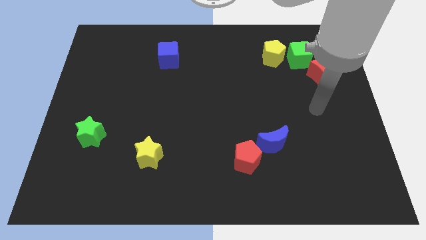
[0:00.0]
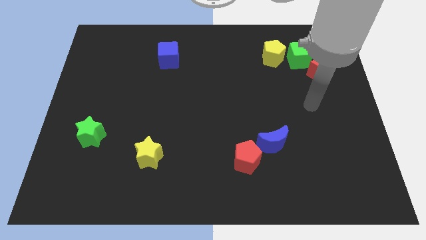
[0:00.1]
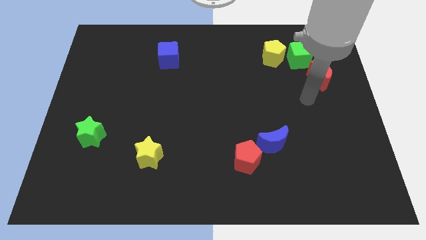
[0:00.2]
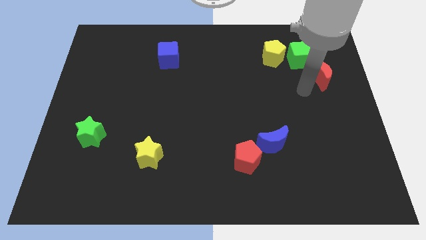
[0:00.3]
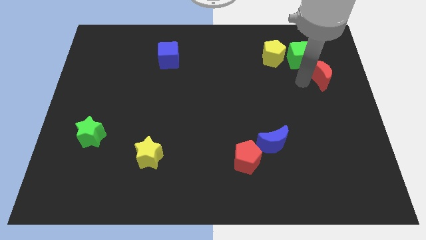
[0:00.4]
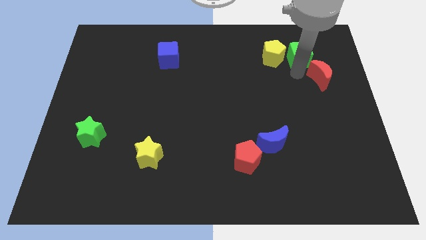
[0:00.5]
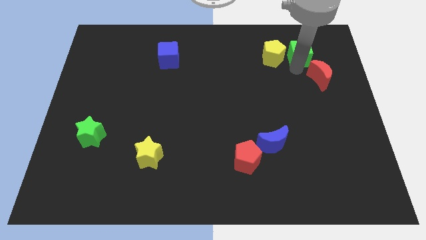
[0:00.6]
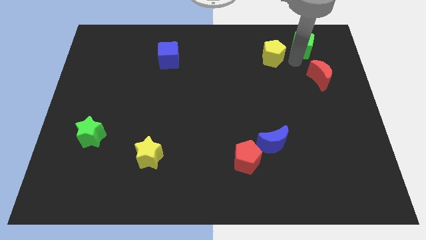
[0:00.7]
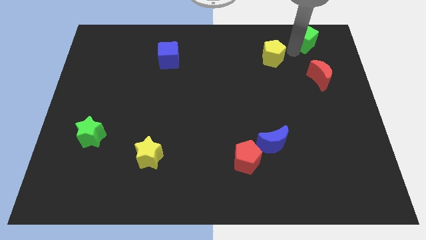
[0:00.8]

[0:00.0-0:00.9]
pull the yellow pentagon apart from the green cube

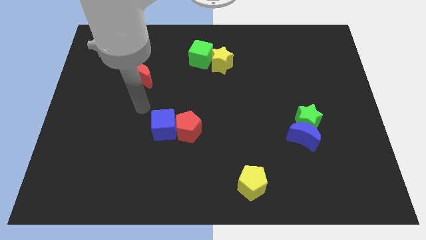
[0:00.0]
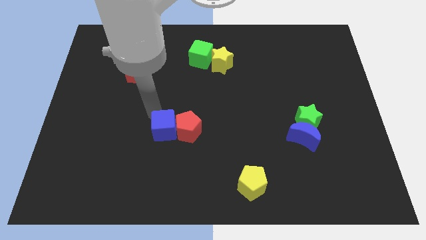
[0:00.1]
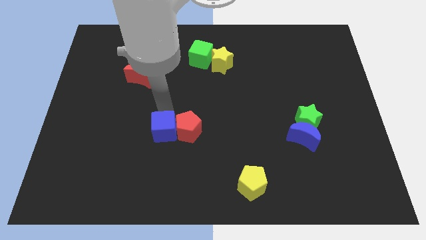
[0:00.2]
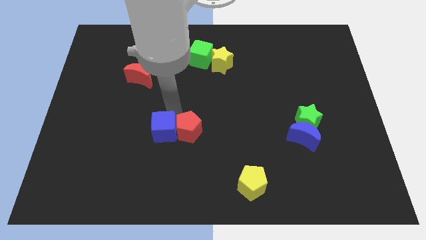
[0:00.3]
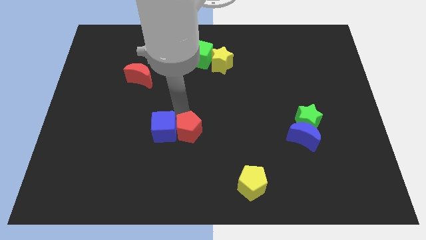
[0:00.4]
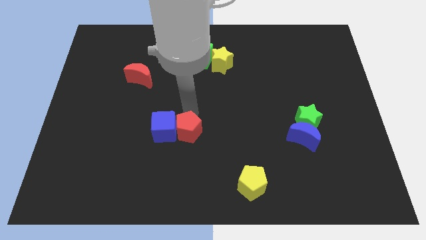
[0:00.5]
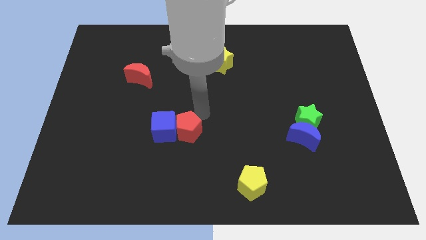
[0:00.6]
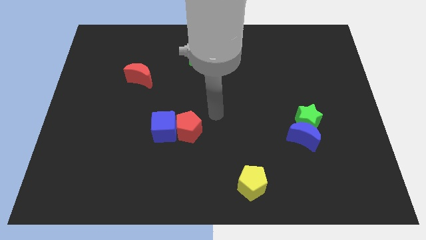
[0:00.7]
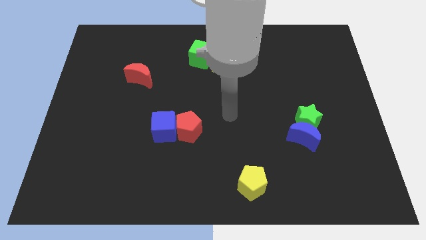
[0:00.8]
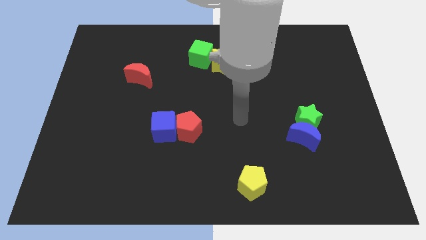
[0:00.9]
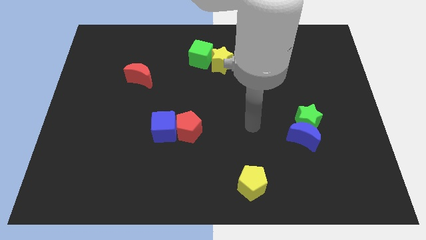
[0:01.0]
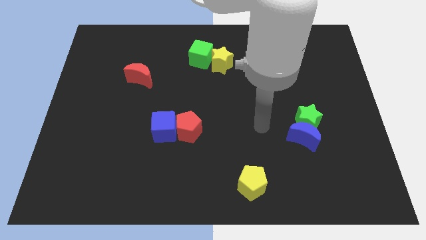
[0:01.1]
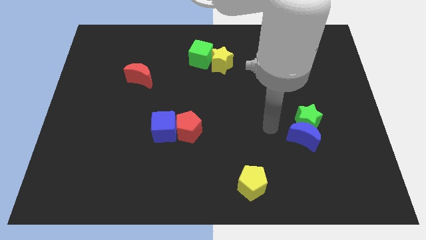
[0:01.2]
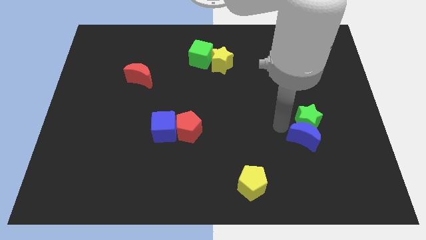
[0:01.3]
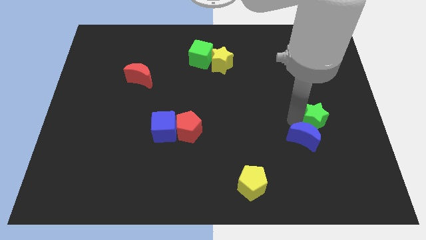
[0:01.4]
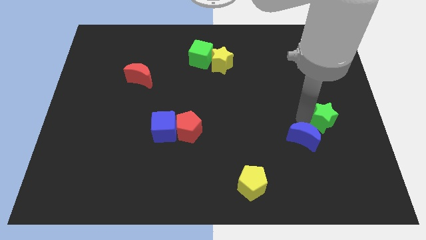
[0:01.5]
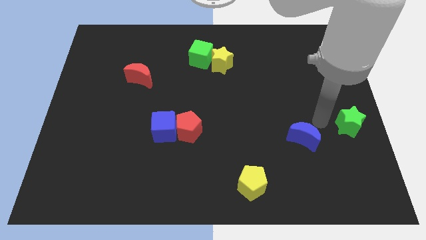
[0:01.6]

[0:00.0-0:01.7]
move the blue moon away from the green star

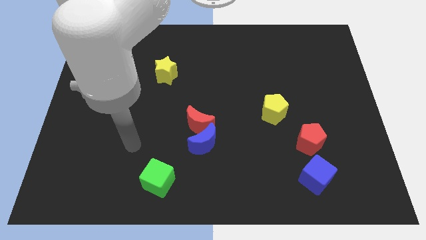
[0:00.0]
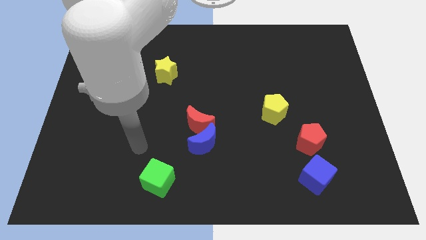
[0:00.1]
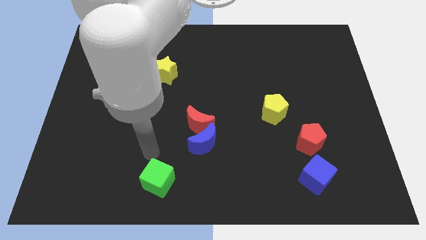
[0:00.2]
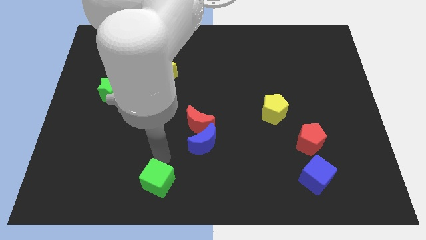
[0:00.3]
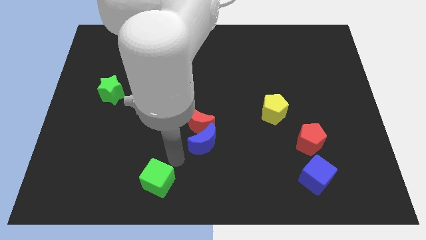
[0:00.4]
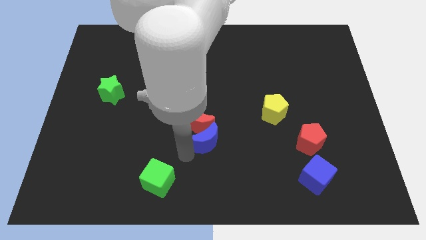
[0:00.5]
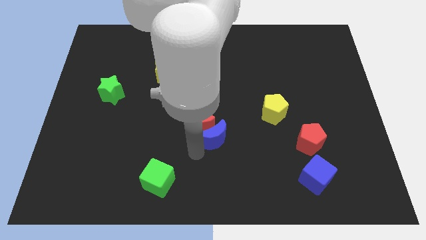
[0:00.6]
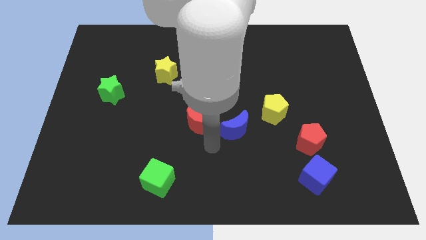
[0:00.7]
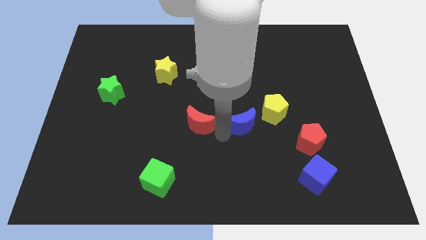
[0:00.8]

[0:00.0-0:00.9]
separate the red moon from the blue moon

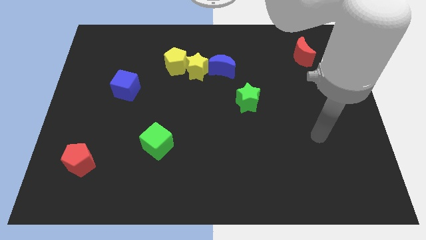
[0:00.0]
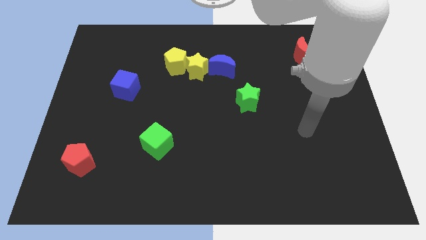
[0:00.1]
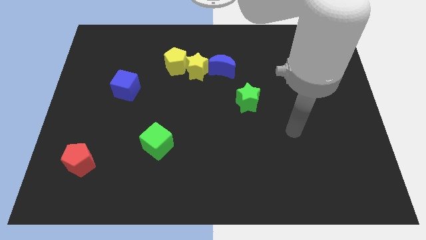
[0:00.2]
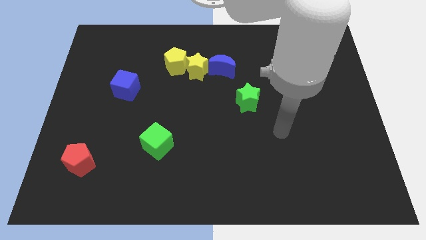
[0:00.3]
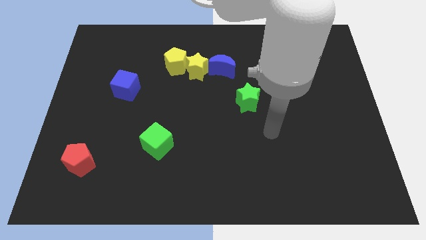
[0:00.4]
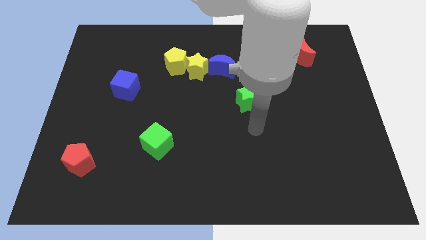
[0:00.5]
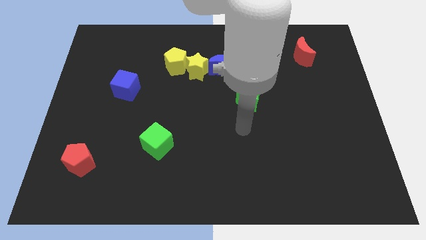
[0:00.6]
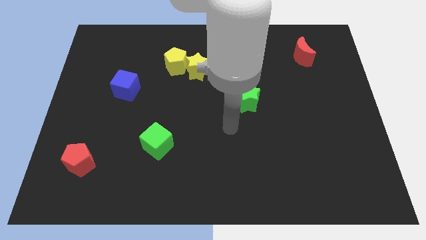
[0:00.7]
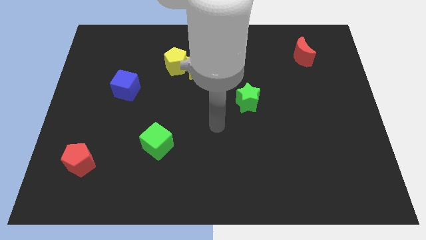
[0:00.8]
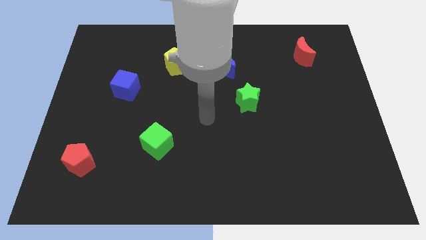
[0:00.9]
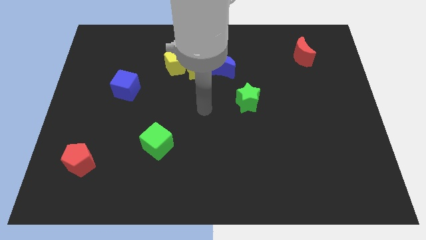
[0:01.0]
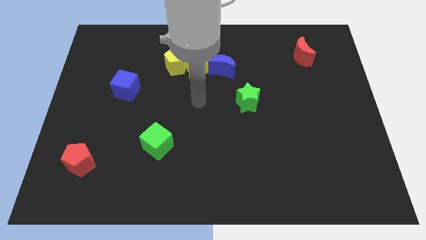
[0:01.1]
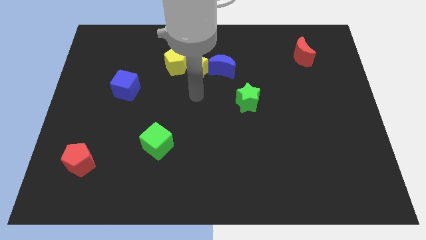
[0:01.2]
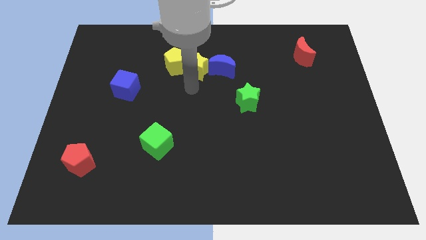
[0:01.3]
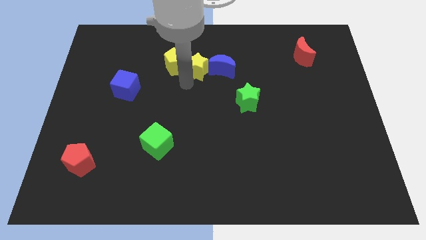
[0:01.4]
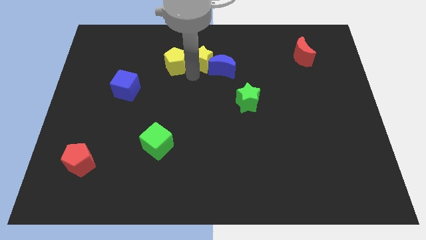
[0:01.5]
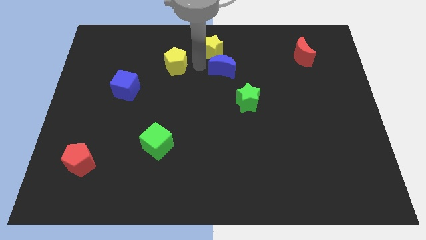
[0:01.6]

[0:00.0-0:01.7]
move the yellow pentagon away from the yellow star

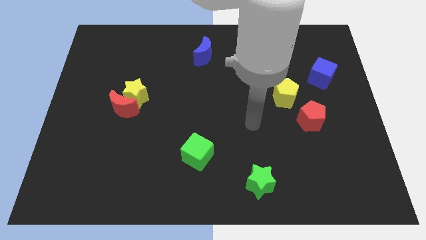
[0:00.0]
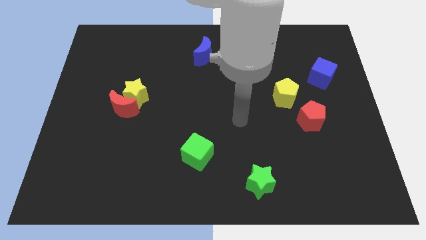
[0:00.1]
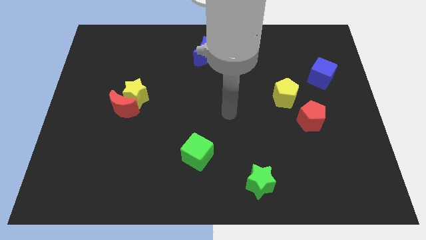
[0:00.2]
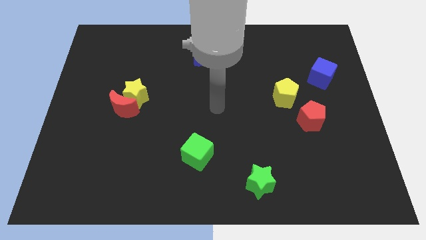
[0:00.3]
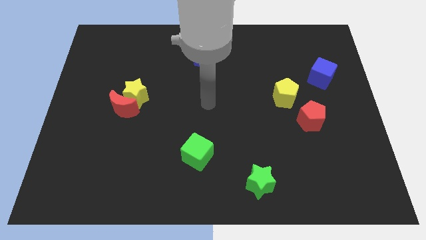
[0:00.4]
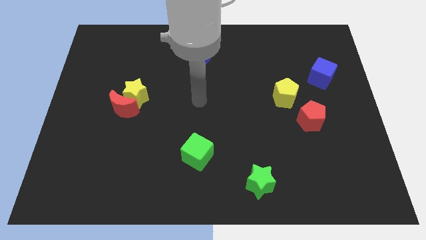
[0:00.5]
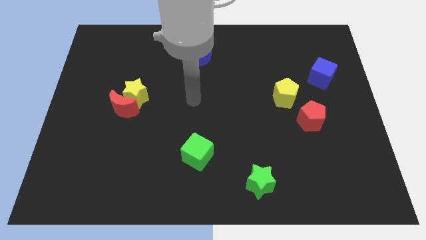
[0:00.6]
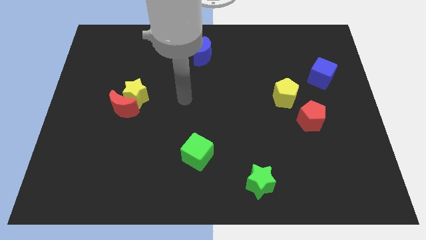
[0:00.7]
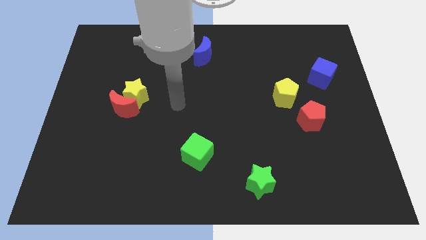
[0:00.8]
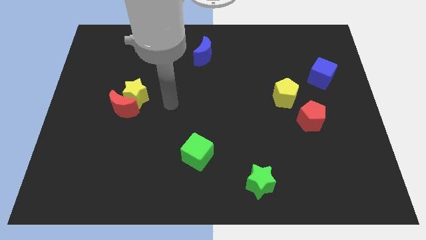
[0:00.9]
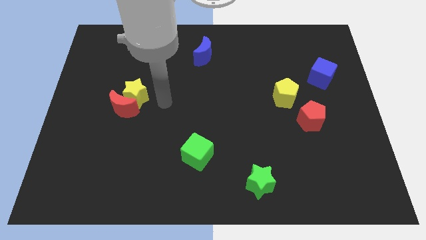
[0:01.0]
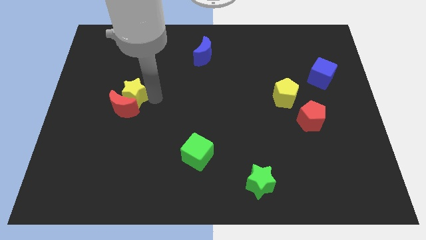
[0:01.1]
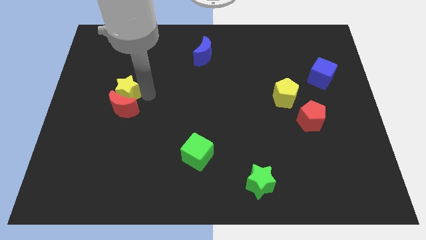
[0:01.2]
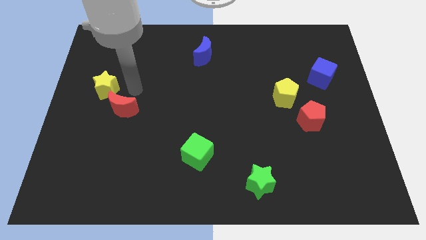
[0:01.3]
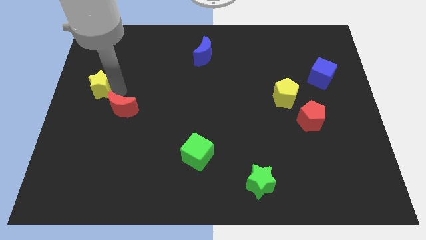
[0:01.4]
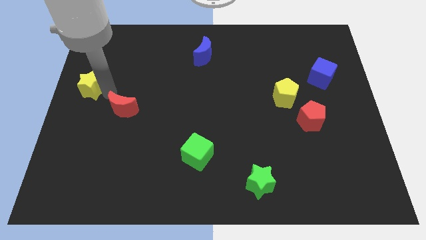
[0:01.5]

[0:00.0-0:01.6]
separate the red moon from the yellow star

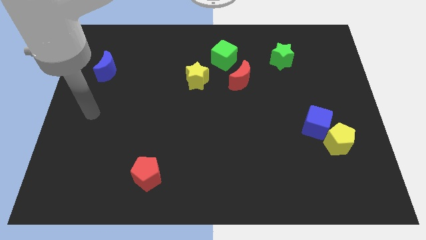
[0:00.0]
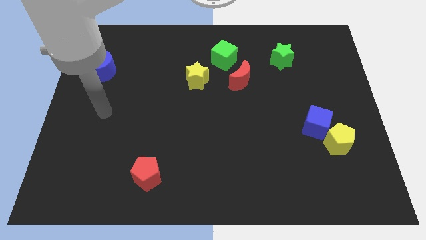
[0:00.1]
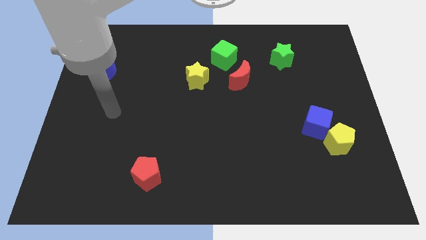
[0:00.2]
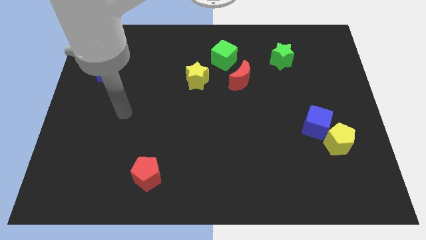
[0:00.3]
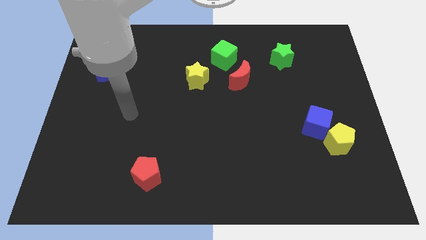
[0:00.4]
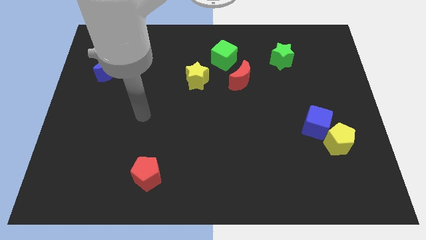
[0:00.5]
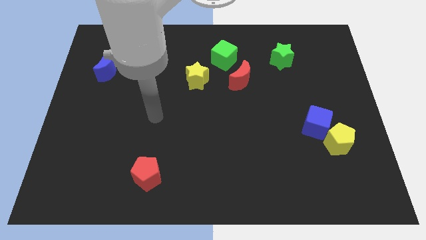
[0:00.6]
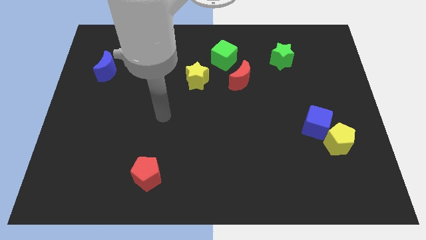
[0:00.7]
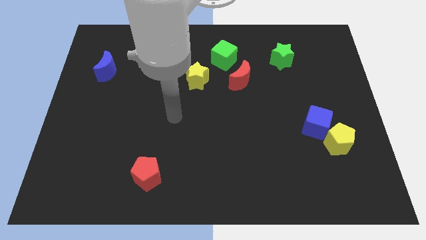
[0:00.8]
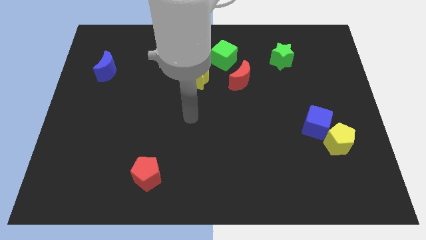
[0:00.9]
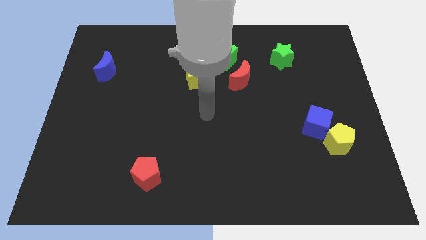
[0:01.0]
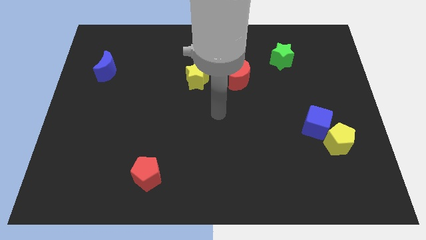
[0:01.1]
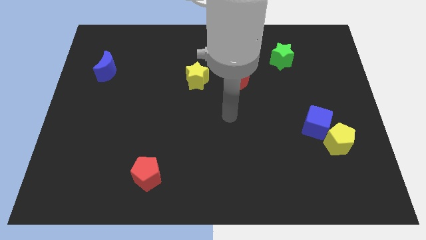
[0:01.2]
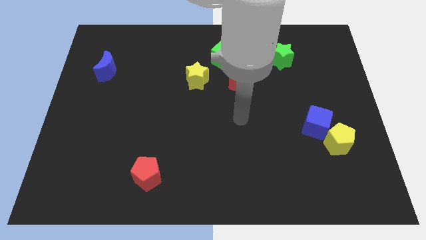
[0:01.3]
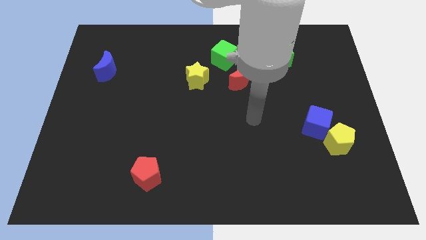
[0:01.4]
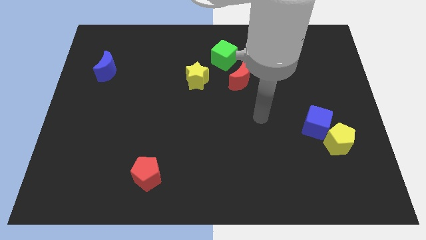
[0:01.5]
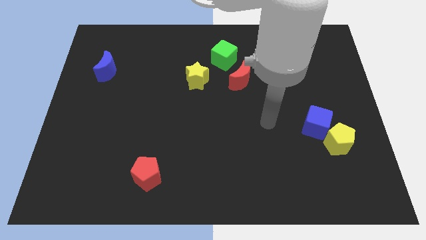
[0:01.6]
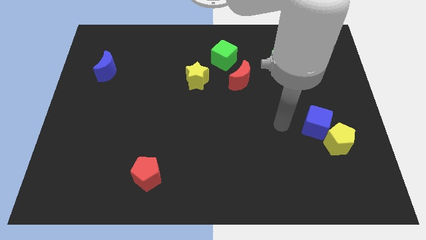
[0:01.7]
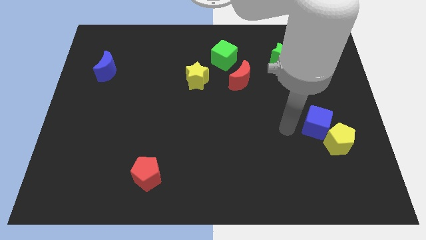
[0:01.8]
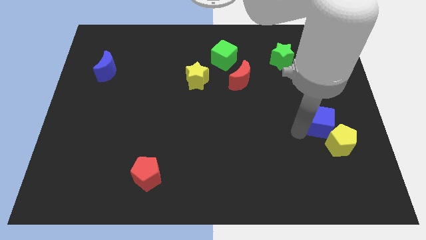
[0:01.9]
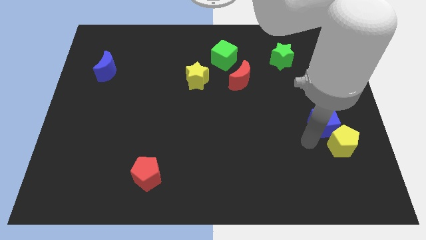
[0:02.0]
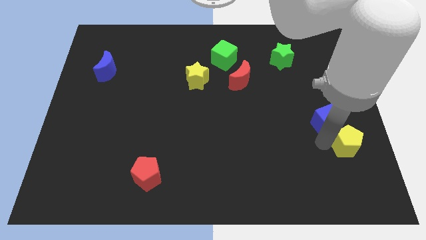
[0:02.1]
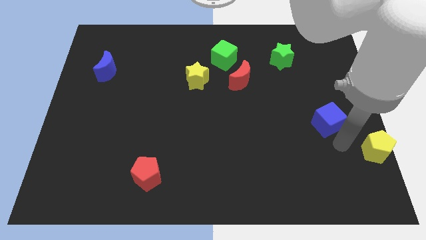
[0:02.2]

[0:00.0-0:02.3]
pull the blue cube apart from the yellow pentagon

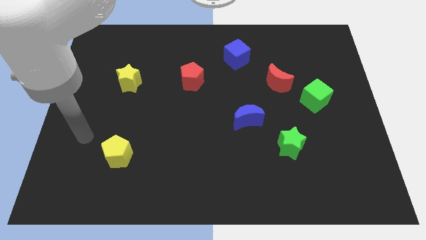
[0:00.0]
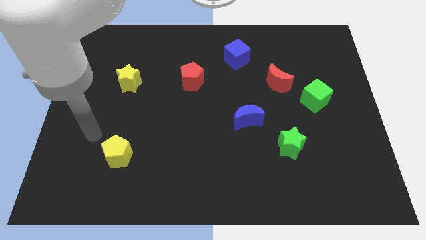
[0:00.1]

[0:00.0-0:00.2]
move the red moon away from the green cube
